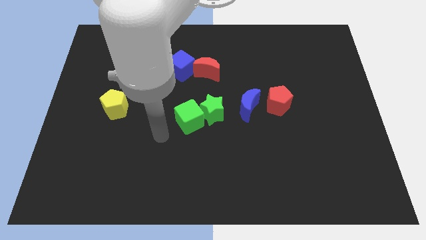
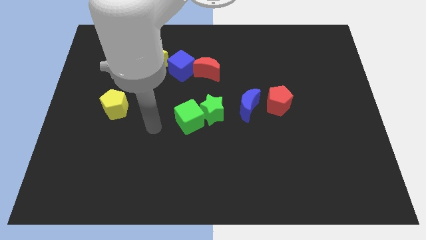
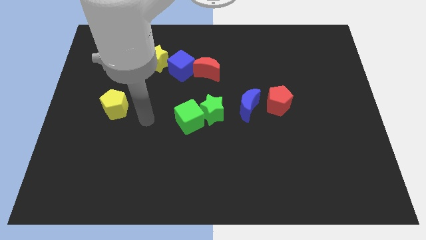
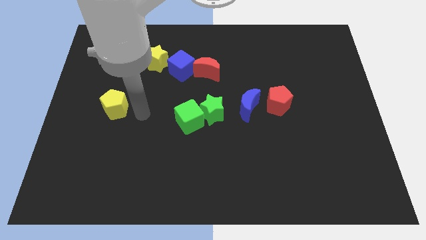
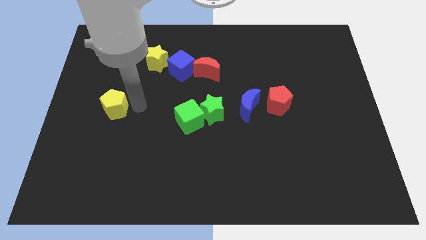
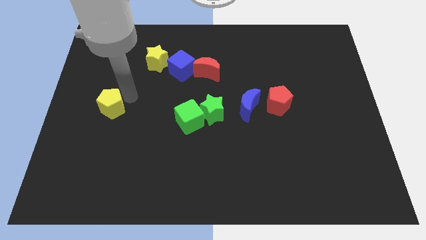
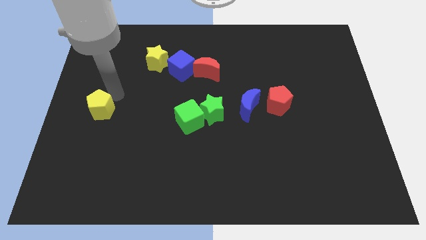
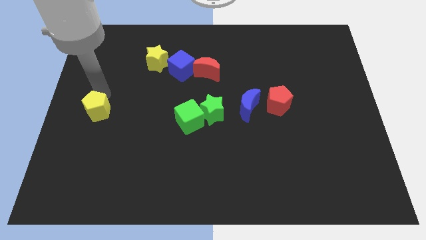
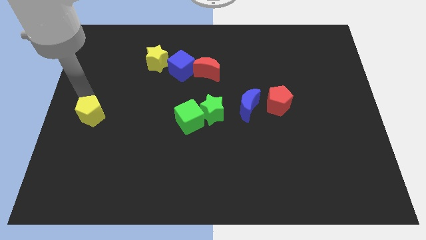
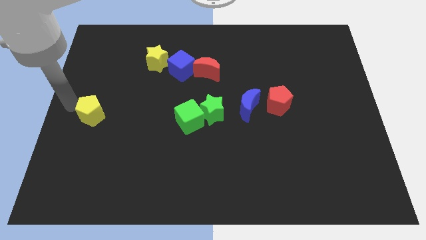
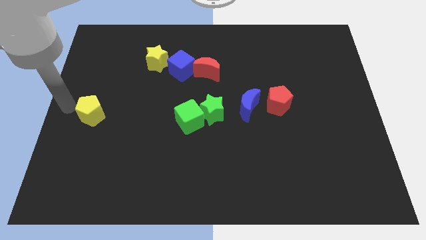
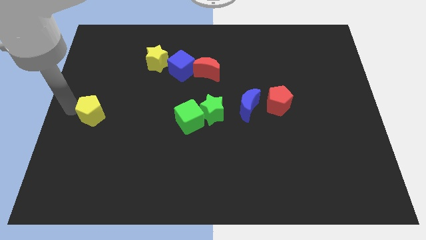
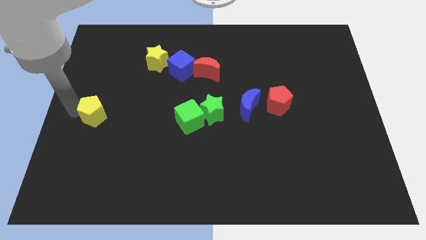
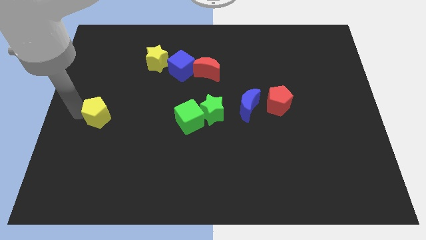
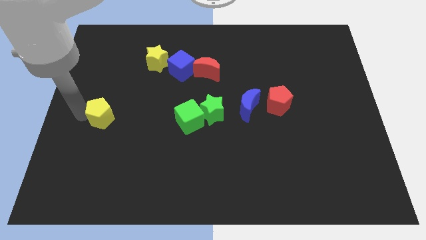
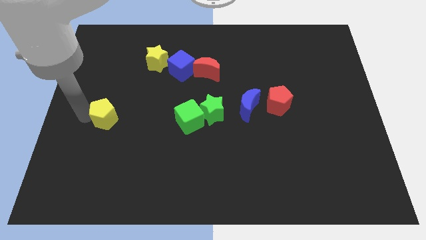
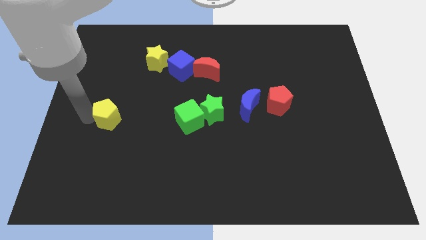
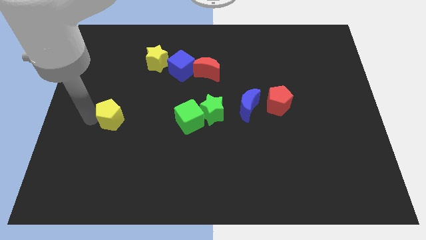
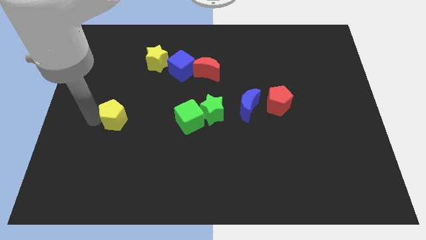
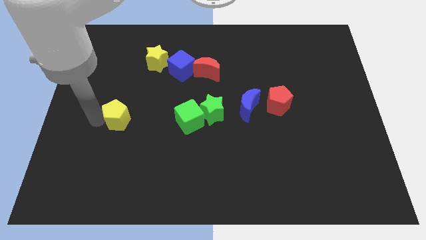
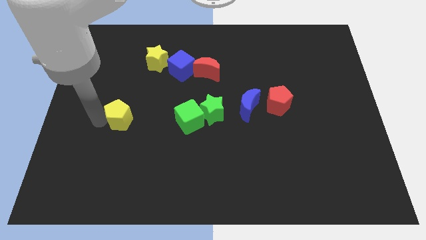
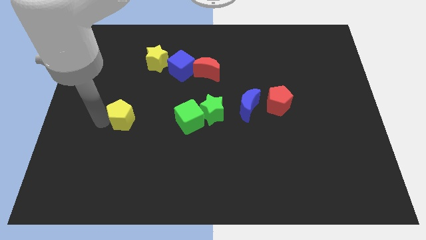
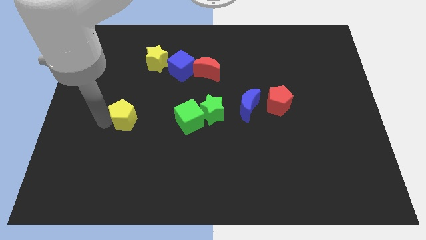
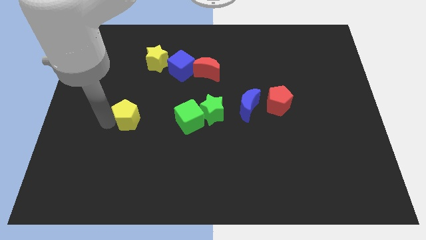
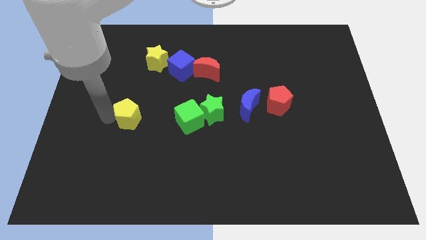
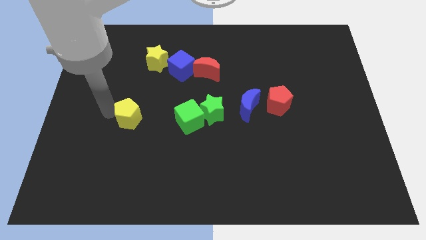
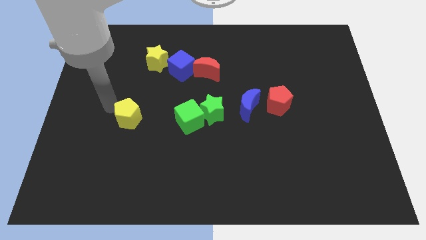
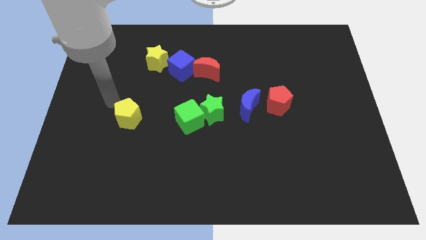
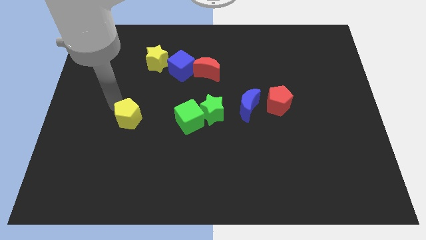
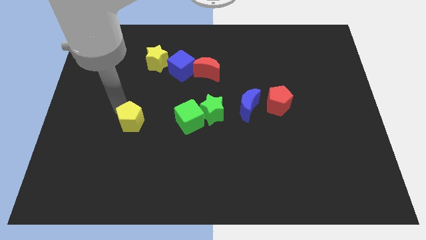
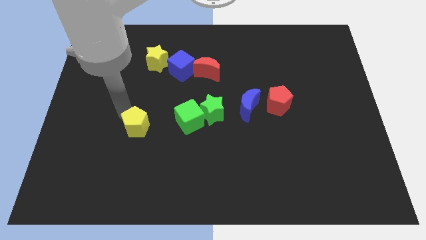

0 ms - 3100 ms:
move the yellow pentagon diagonally down and to the right a little bit

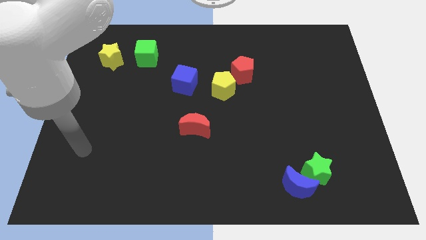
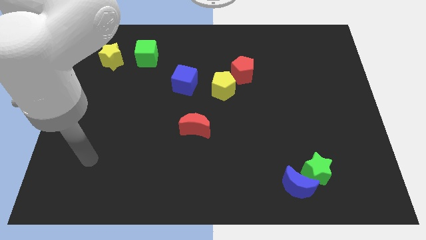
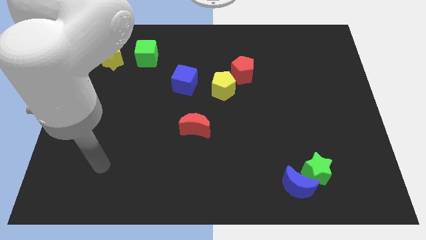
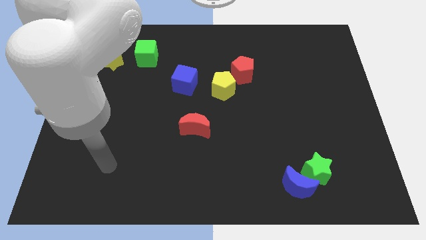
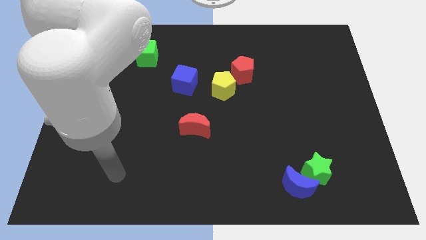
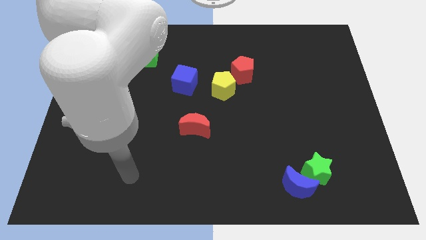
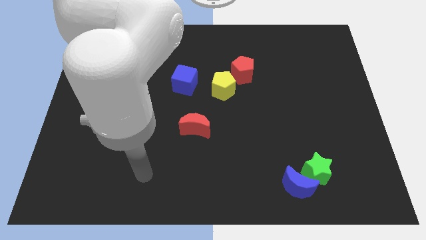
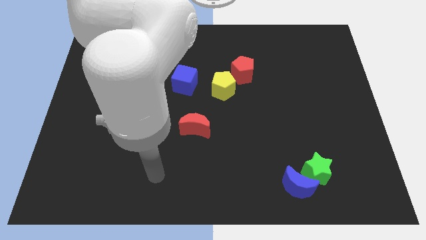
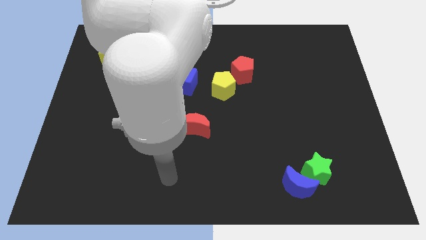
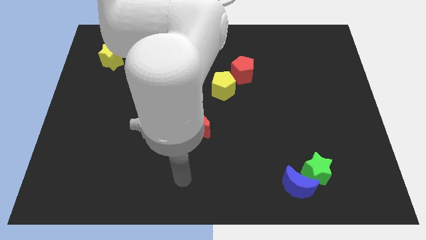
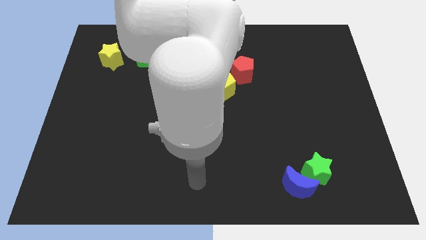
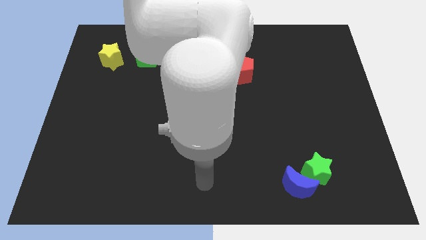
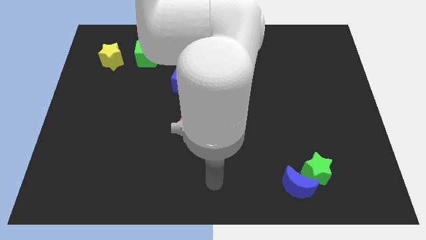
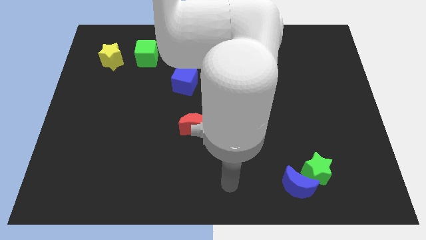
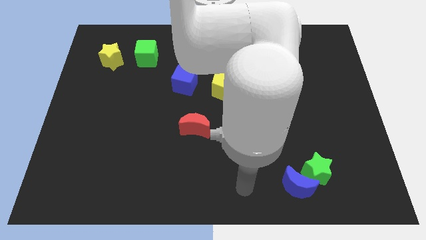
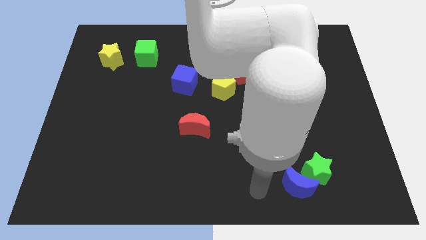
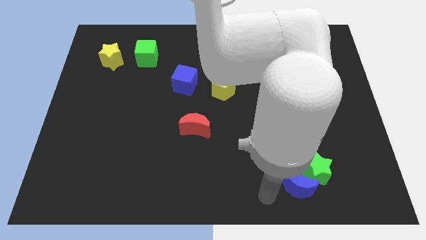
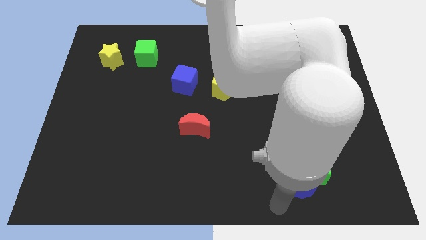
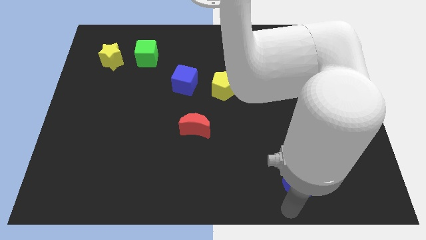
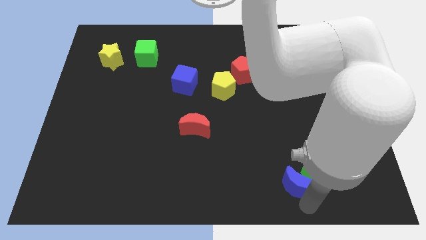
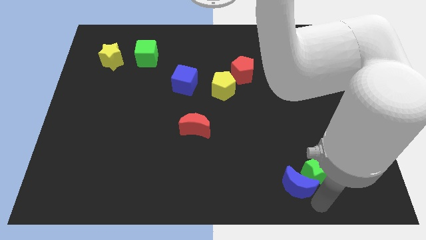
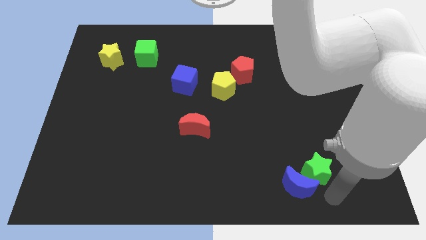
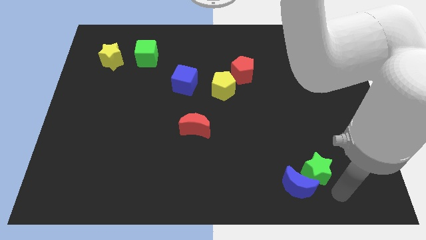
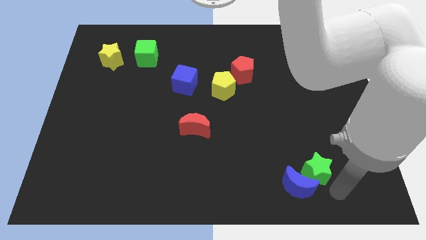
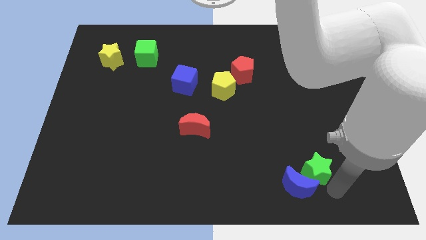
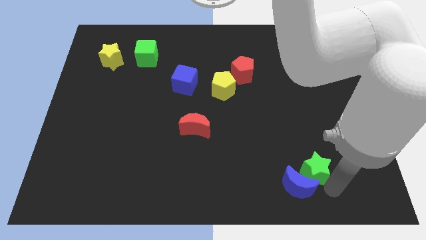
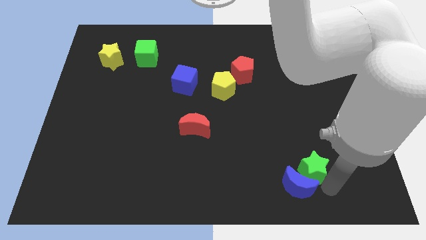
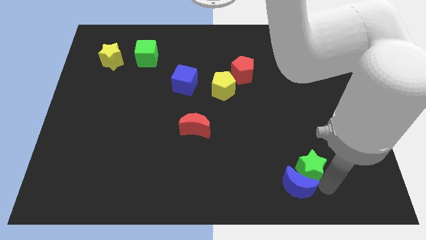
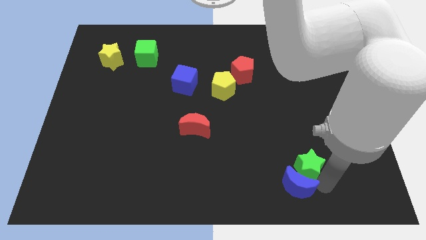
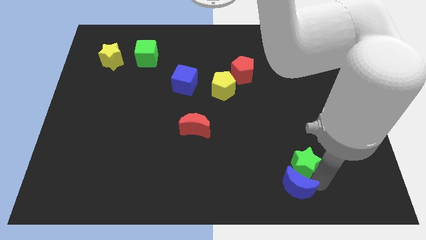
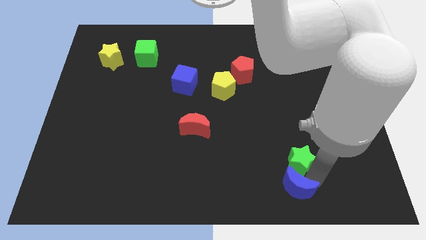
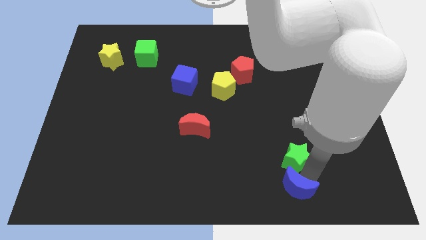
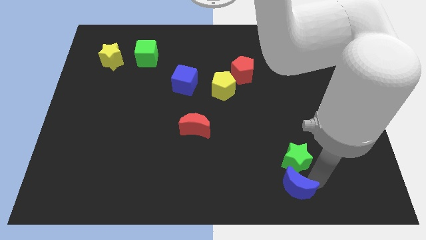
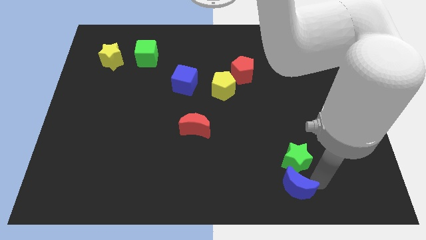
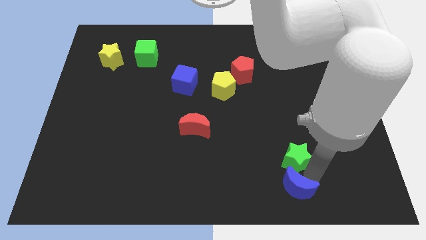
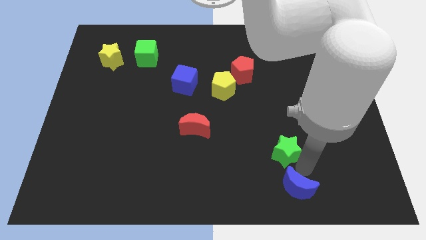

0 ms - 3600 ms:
push the green star upwards and left slightly

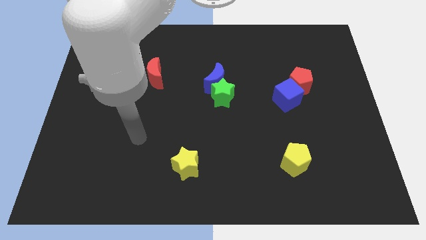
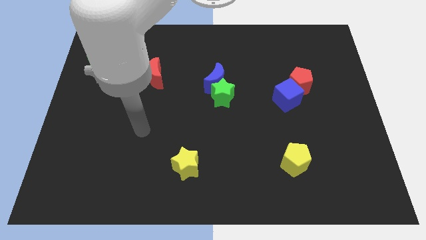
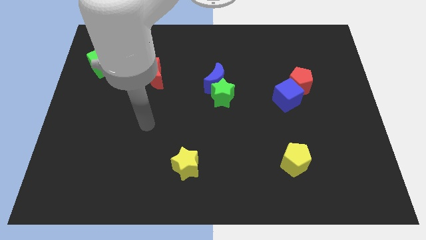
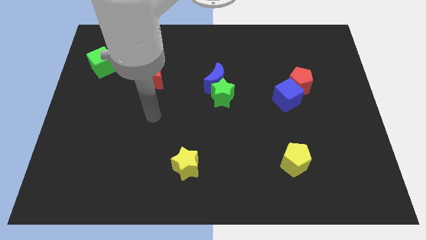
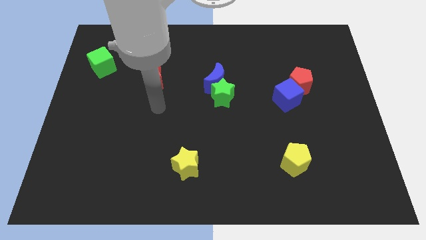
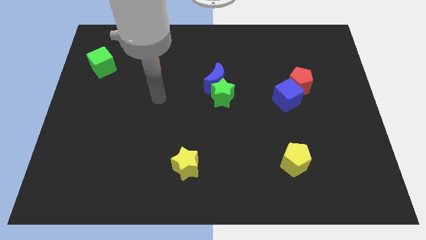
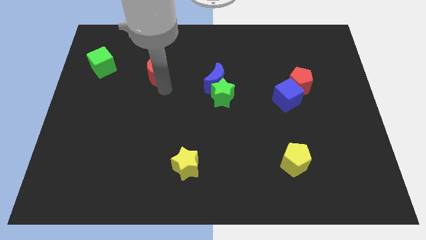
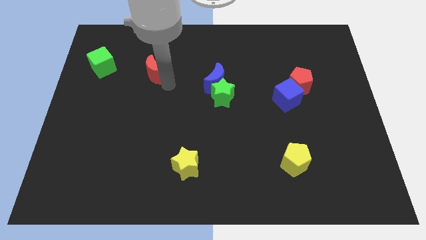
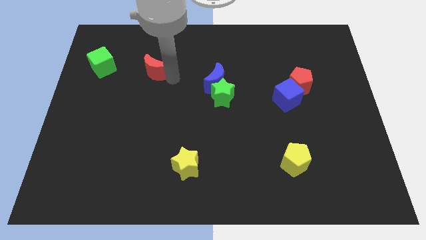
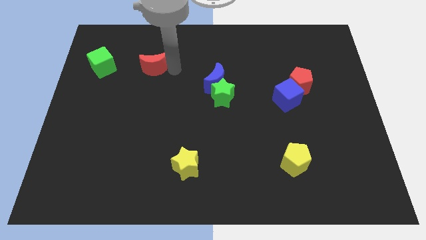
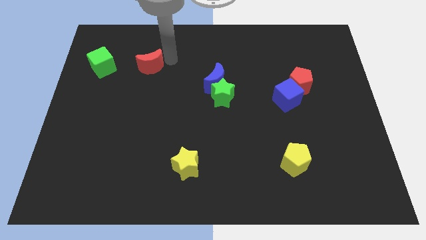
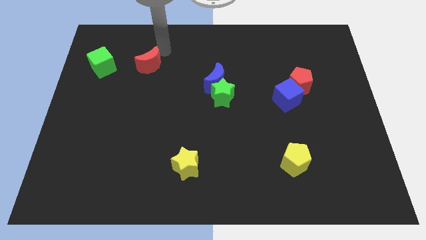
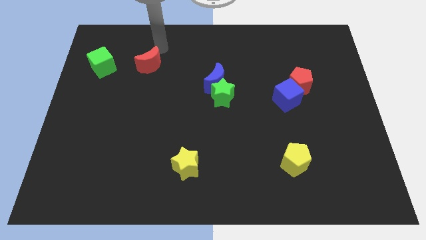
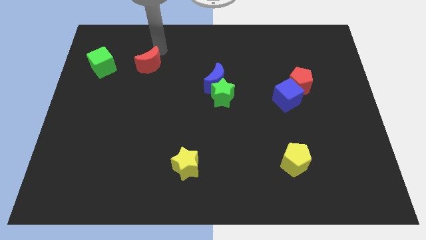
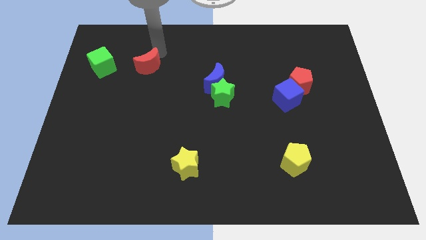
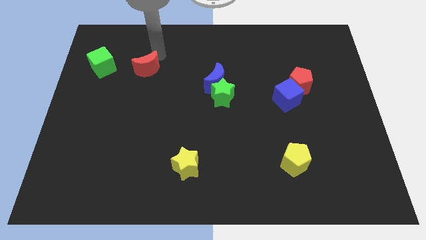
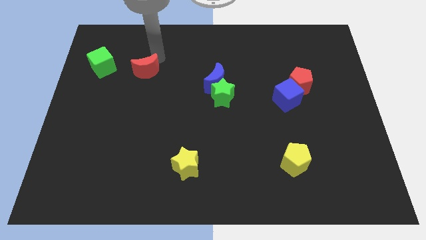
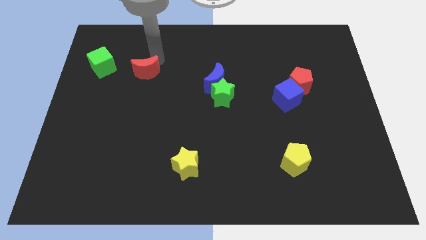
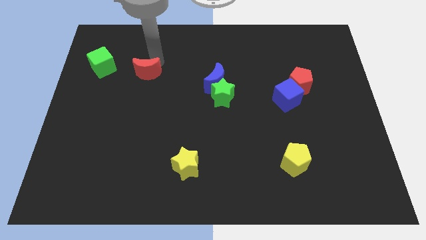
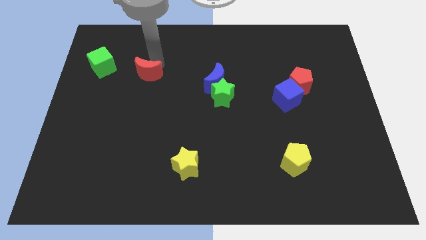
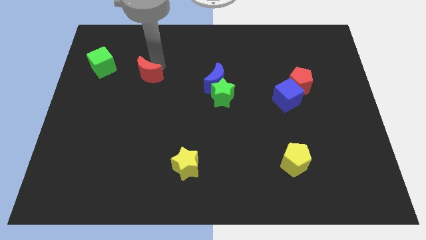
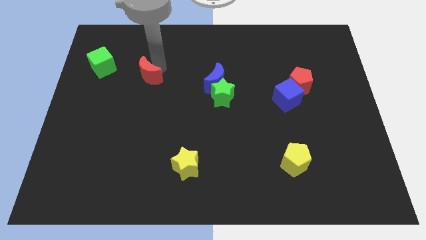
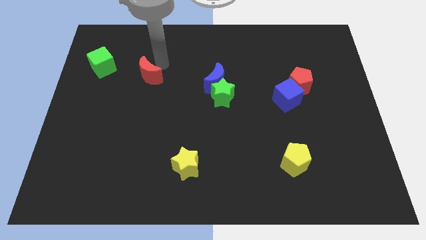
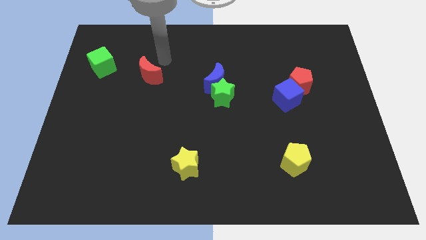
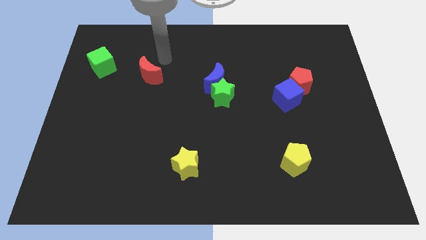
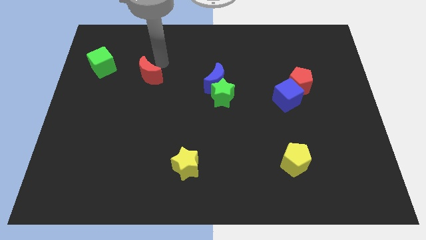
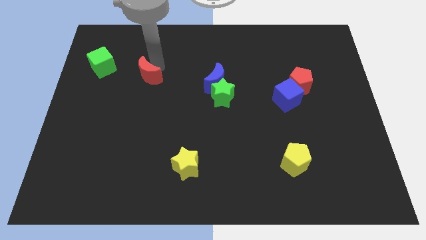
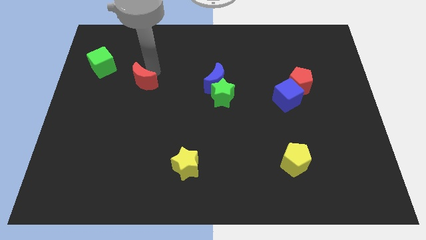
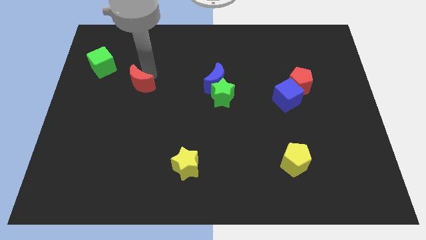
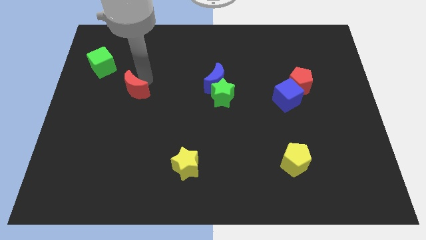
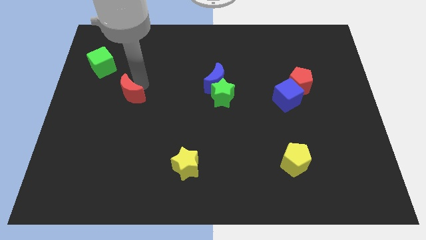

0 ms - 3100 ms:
push the red moon down and to the left a little bit
